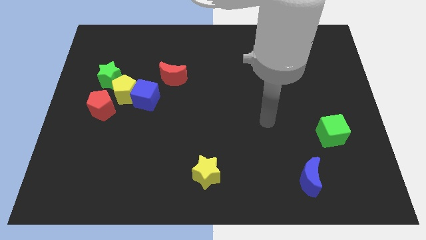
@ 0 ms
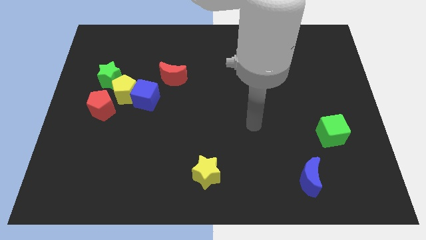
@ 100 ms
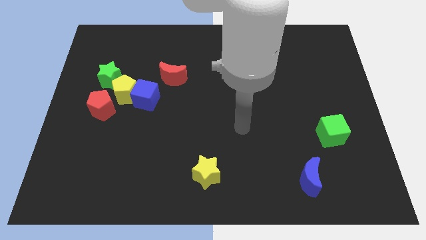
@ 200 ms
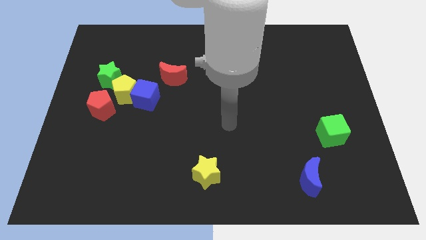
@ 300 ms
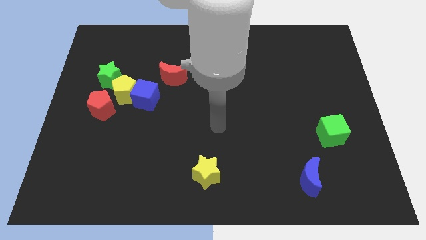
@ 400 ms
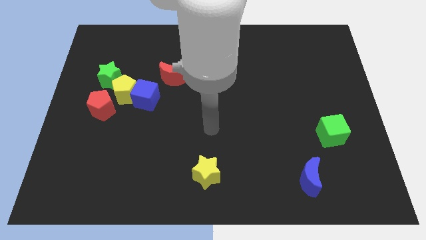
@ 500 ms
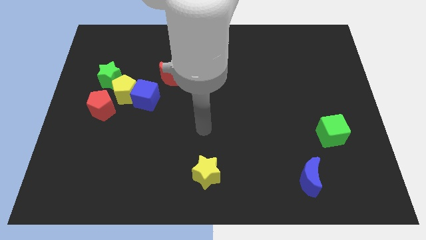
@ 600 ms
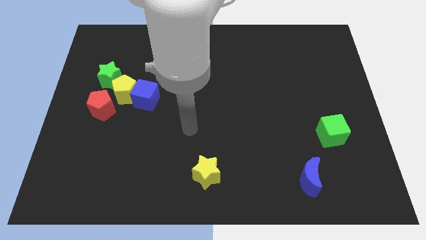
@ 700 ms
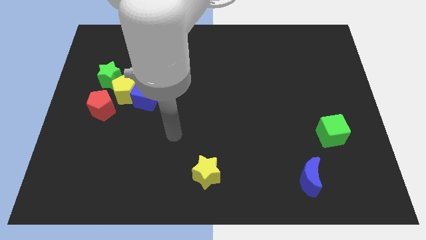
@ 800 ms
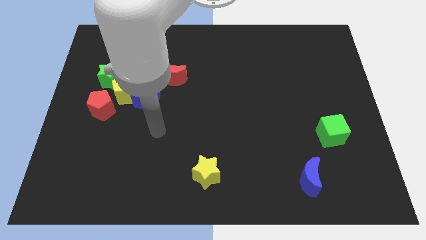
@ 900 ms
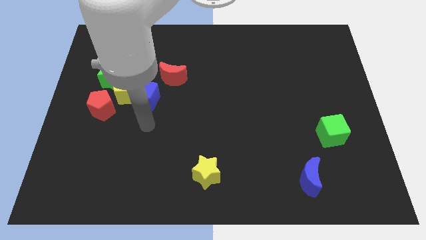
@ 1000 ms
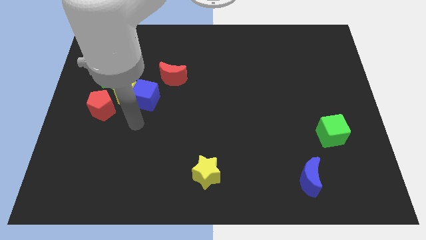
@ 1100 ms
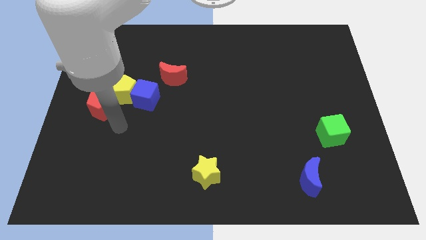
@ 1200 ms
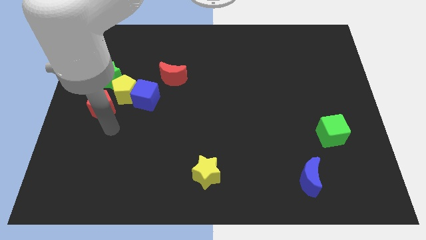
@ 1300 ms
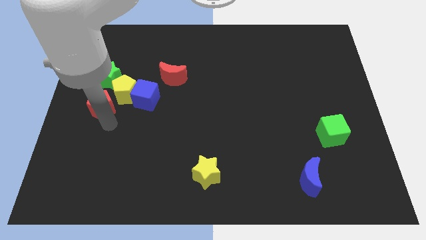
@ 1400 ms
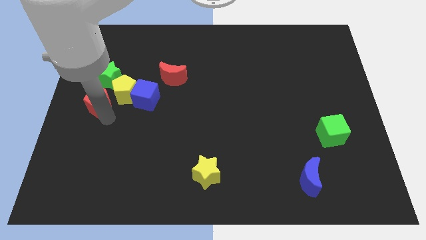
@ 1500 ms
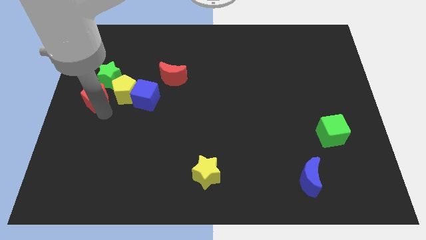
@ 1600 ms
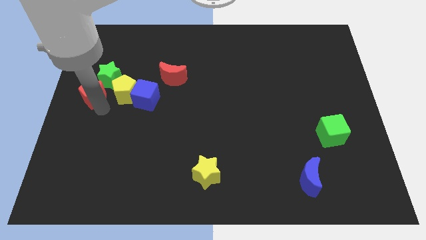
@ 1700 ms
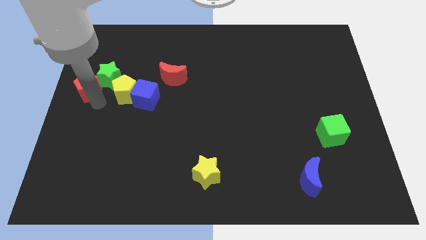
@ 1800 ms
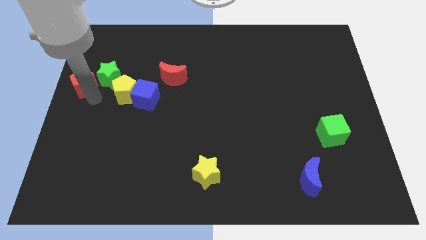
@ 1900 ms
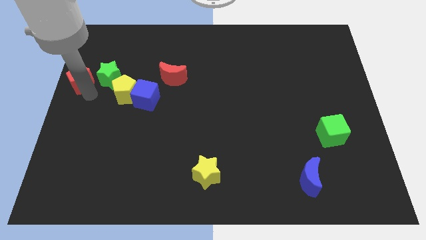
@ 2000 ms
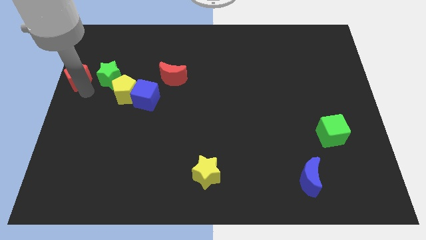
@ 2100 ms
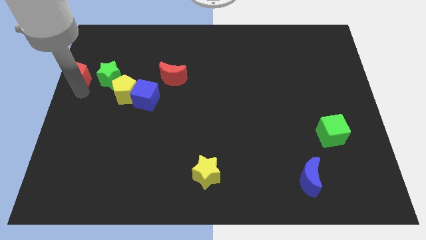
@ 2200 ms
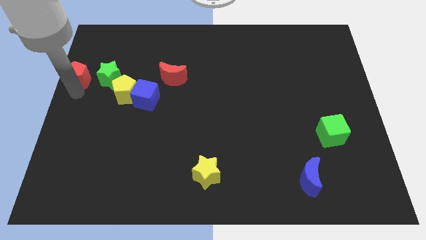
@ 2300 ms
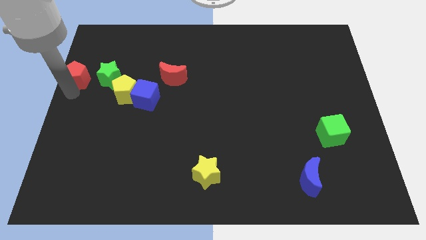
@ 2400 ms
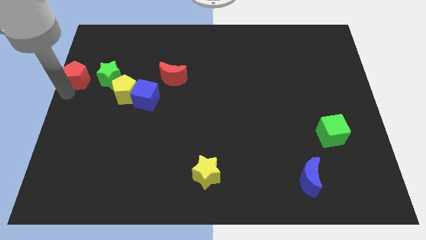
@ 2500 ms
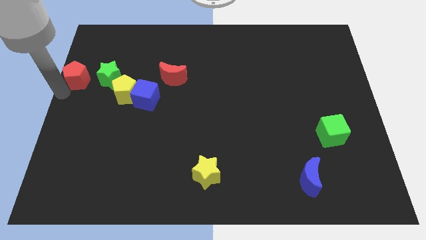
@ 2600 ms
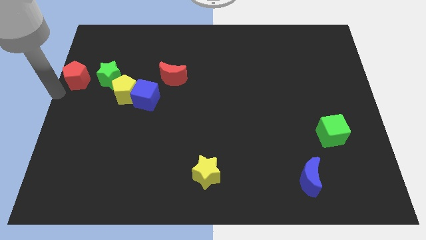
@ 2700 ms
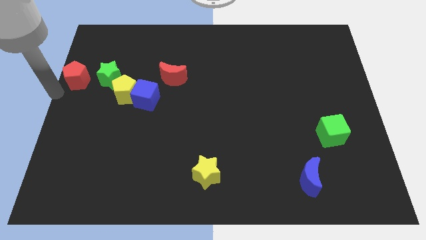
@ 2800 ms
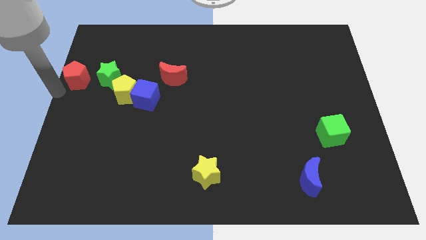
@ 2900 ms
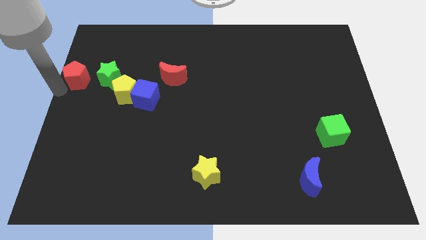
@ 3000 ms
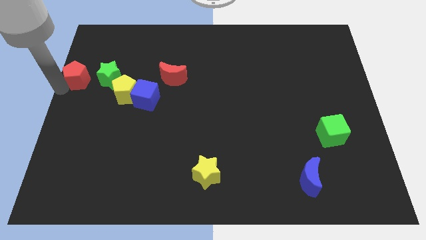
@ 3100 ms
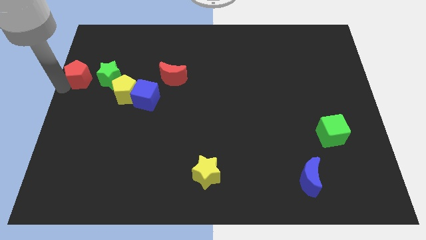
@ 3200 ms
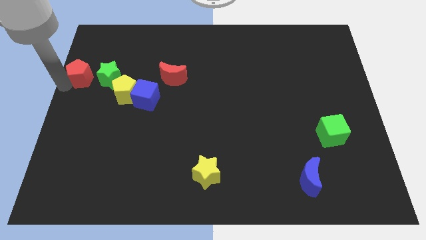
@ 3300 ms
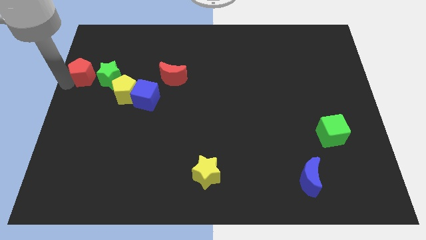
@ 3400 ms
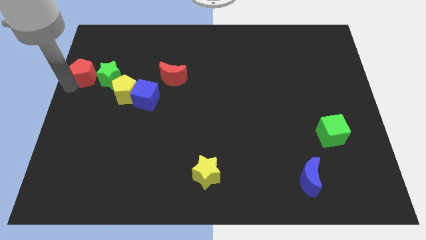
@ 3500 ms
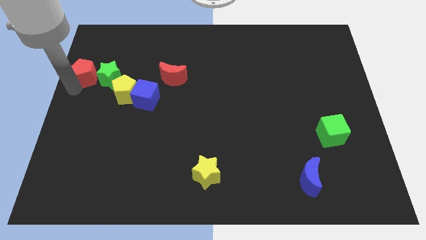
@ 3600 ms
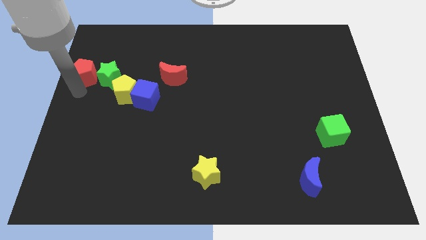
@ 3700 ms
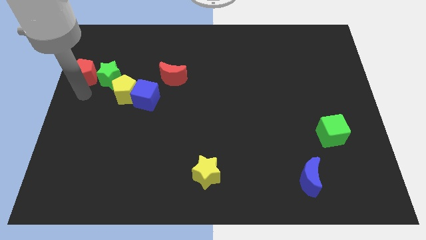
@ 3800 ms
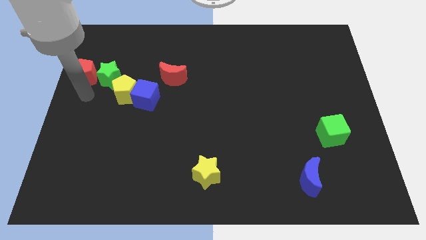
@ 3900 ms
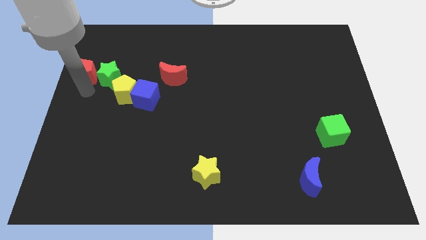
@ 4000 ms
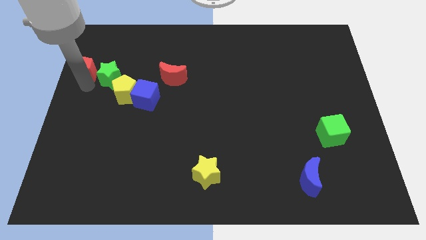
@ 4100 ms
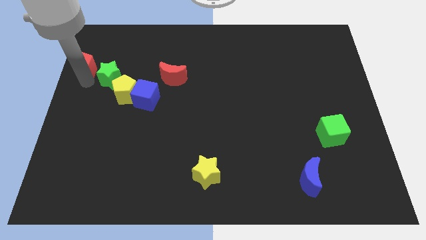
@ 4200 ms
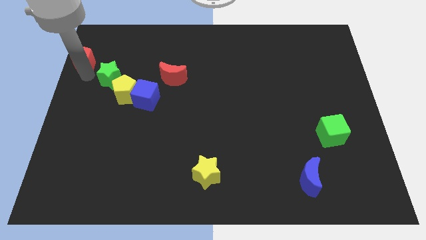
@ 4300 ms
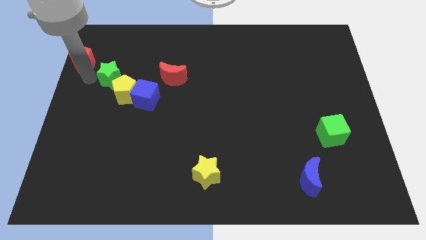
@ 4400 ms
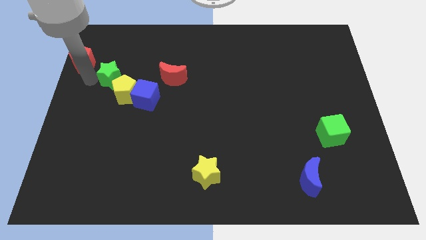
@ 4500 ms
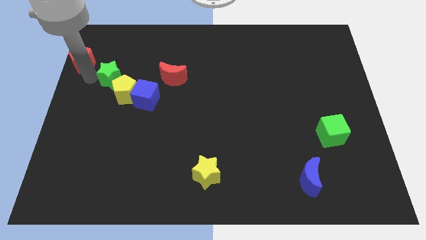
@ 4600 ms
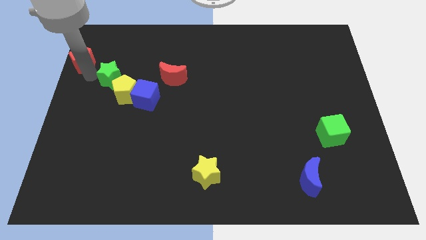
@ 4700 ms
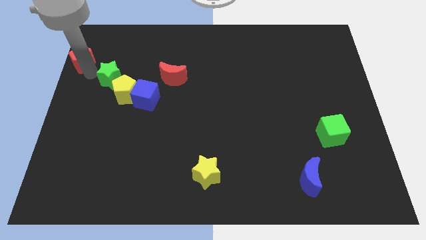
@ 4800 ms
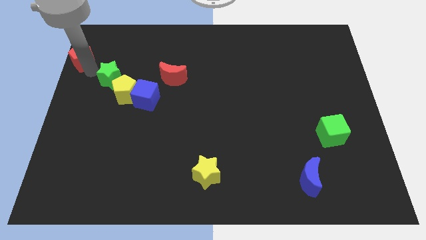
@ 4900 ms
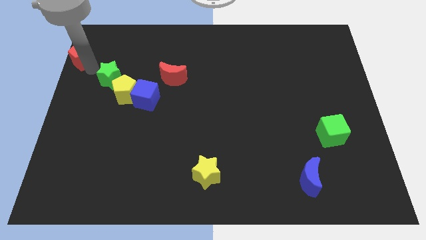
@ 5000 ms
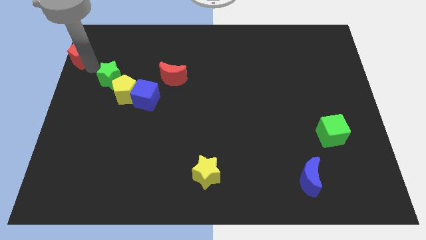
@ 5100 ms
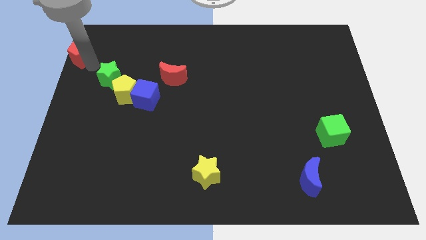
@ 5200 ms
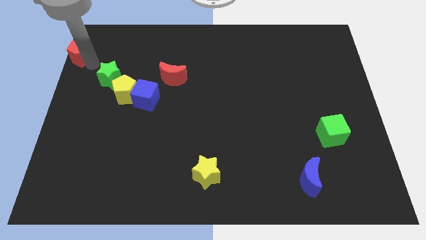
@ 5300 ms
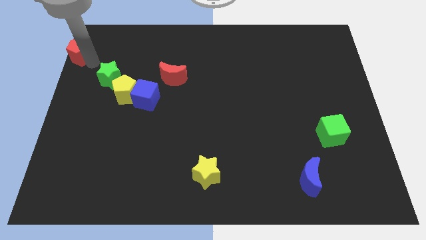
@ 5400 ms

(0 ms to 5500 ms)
move the red pentagon to the upper left corner

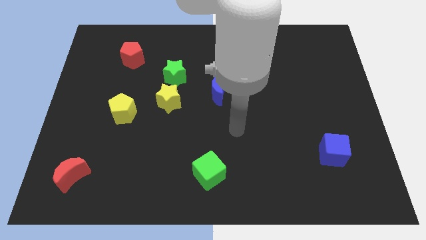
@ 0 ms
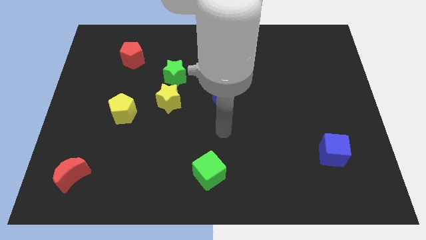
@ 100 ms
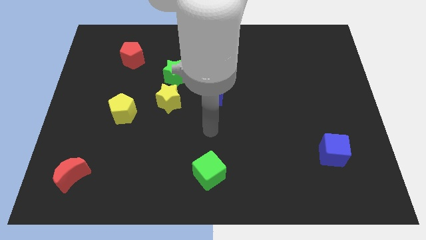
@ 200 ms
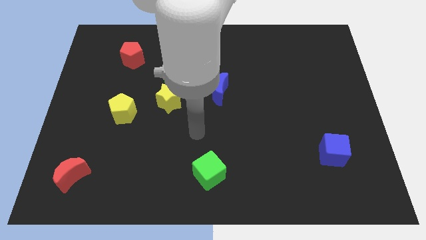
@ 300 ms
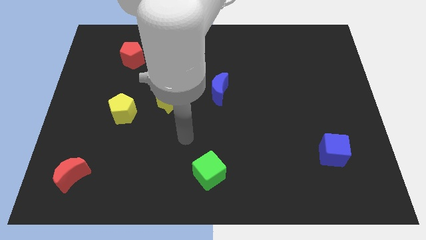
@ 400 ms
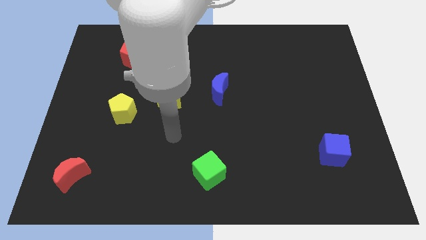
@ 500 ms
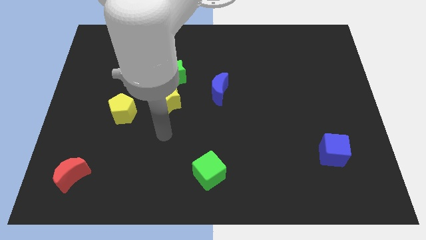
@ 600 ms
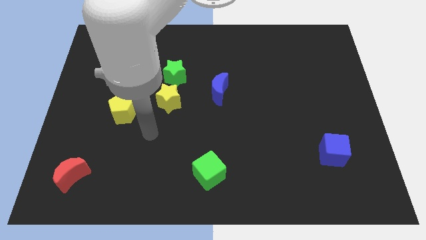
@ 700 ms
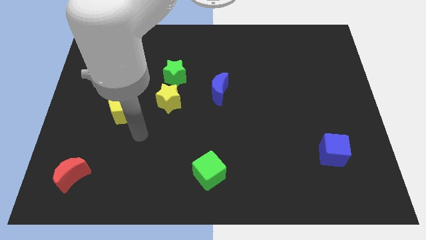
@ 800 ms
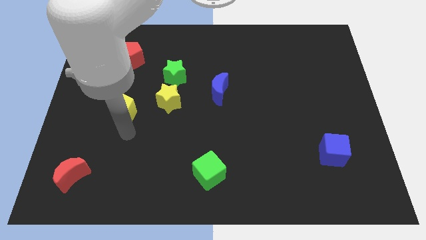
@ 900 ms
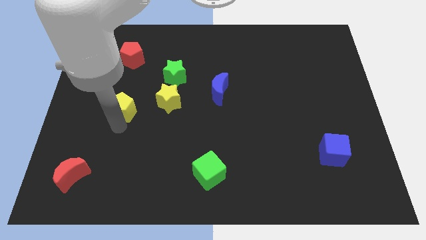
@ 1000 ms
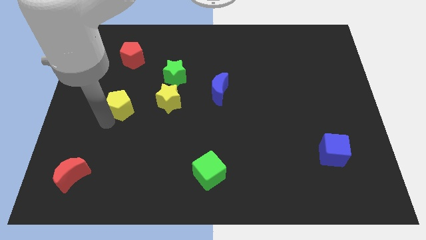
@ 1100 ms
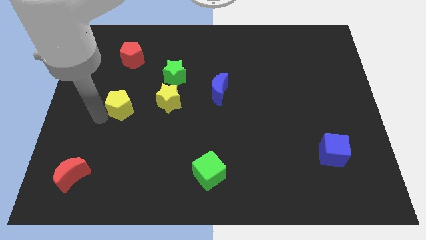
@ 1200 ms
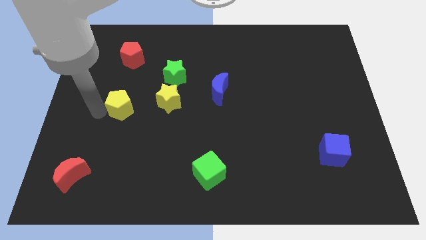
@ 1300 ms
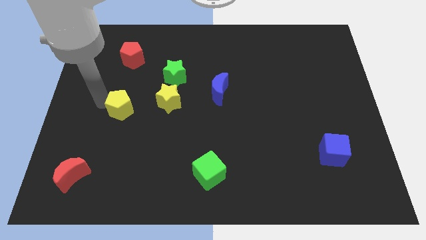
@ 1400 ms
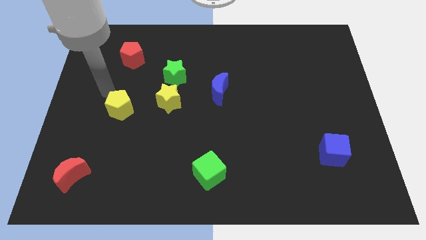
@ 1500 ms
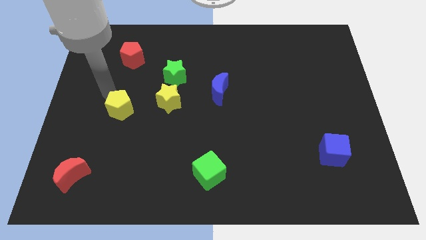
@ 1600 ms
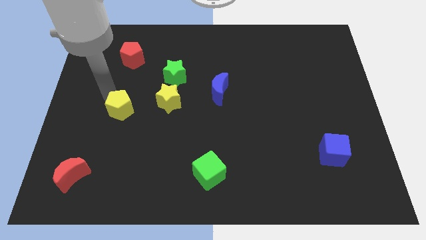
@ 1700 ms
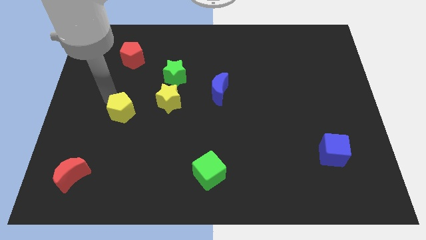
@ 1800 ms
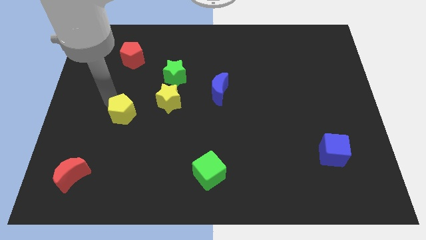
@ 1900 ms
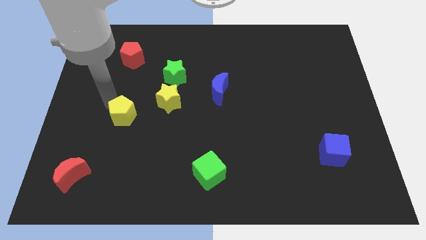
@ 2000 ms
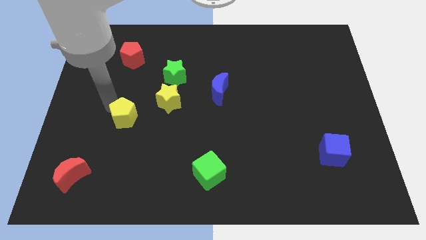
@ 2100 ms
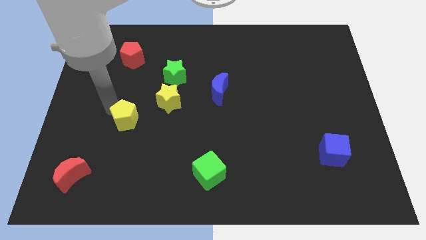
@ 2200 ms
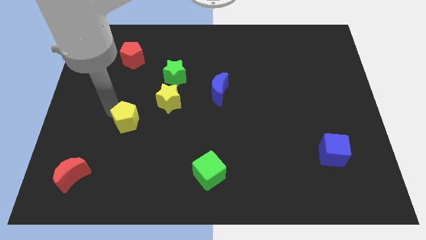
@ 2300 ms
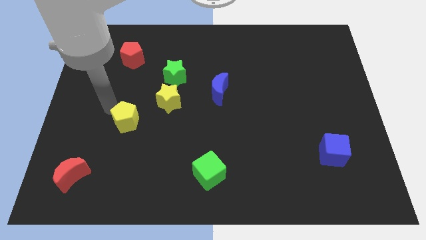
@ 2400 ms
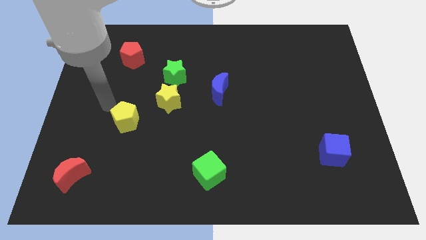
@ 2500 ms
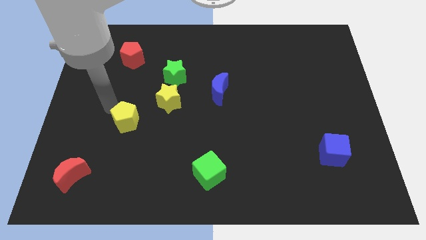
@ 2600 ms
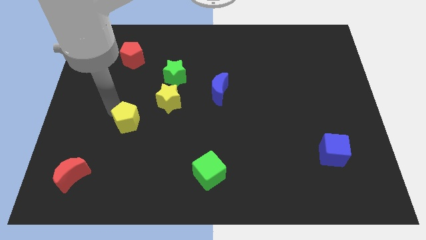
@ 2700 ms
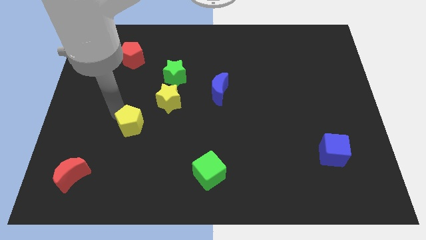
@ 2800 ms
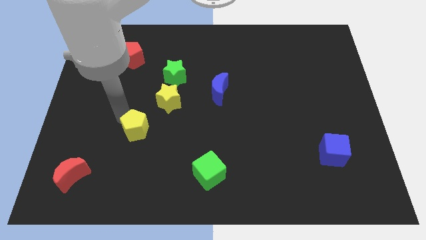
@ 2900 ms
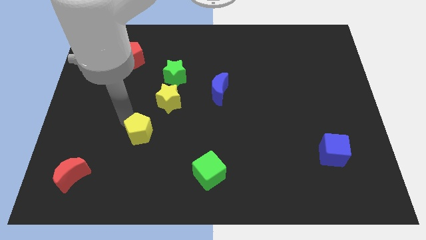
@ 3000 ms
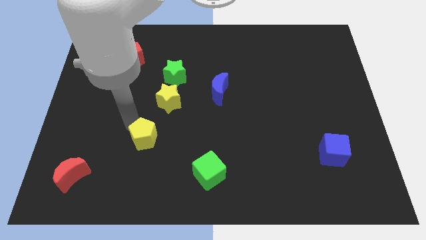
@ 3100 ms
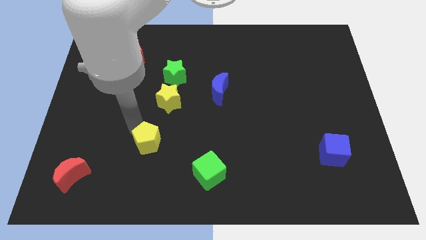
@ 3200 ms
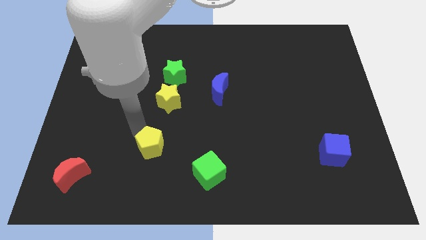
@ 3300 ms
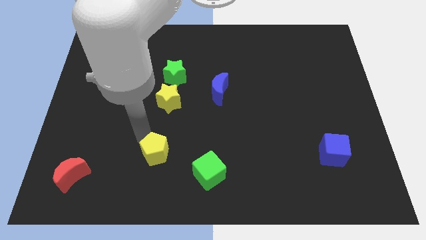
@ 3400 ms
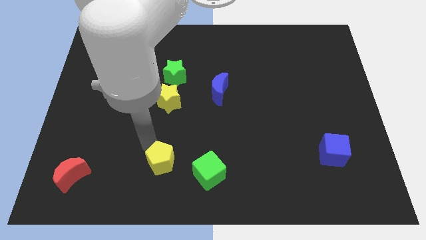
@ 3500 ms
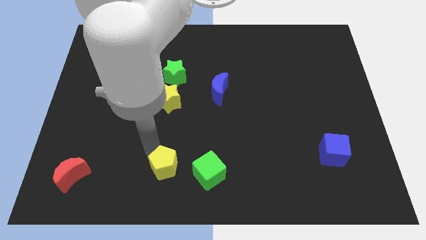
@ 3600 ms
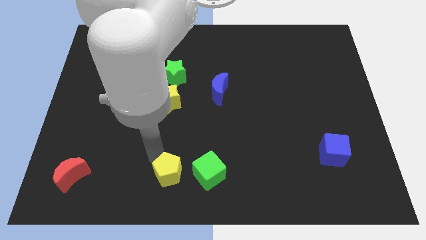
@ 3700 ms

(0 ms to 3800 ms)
slide the yellow pentagon to the bottom
